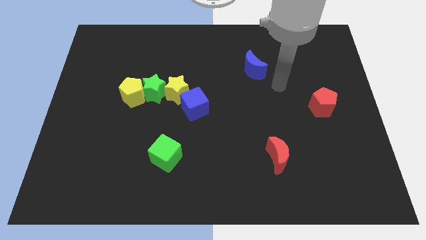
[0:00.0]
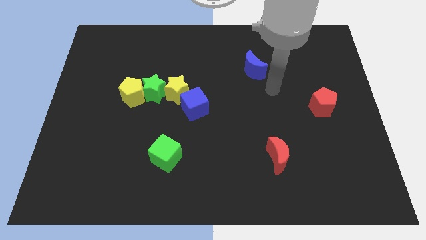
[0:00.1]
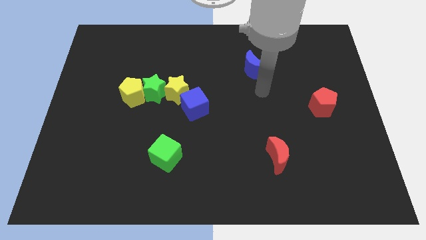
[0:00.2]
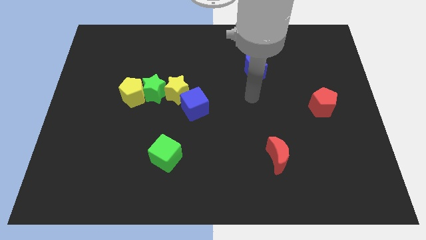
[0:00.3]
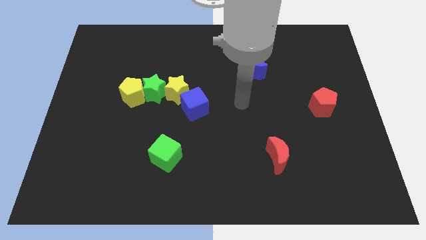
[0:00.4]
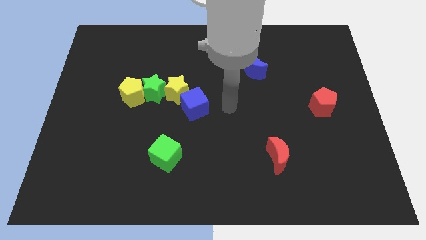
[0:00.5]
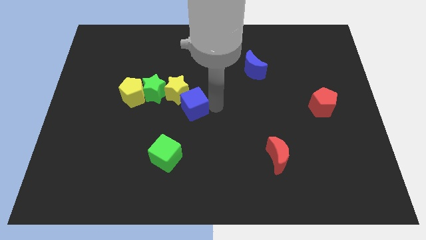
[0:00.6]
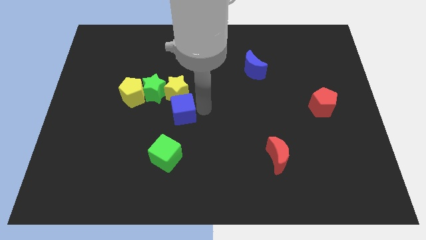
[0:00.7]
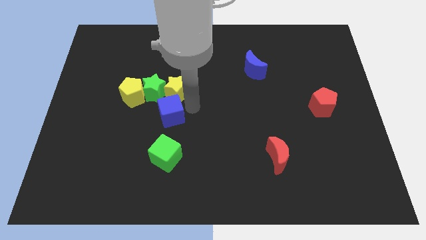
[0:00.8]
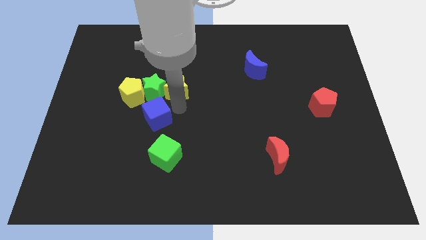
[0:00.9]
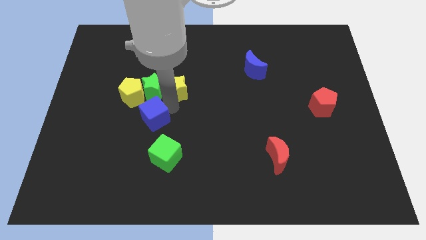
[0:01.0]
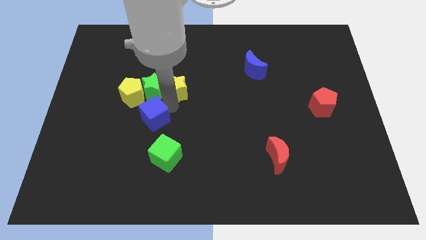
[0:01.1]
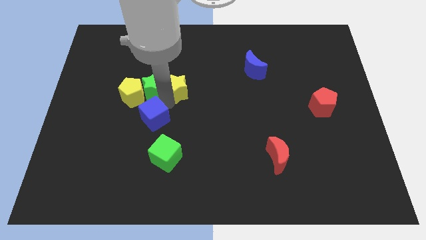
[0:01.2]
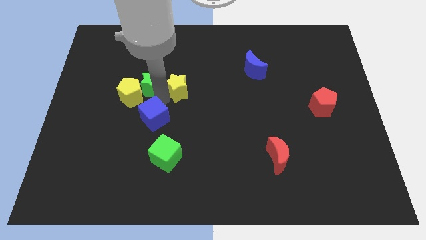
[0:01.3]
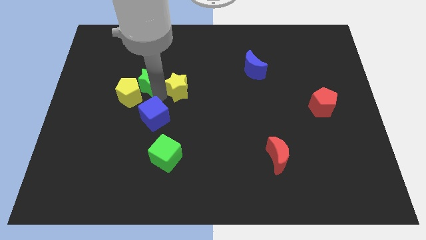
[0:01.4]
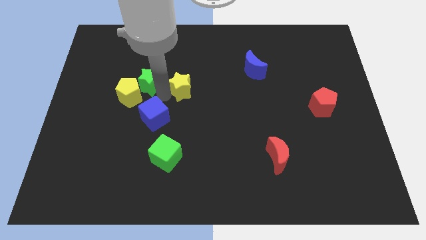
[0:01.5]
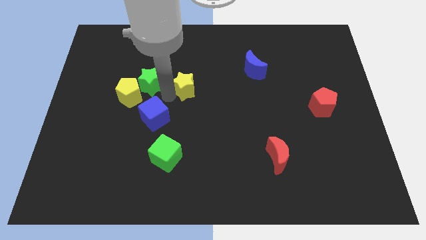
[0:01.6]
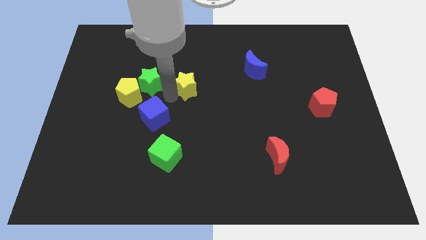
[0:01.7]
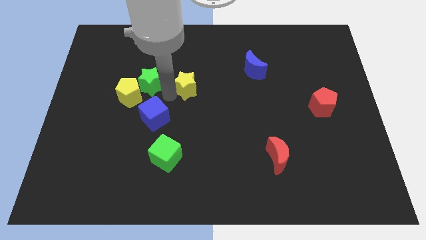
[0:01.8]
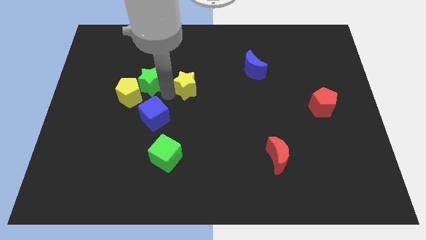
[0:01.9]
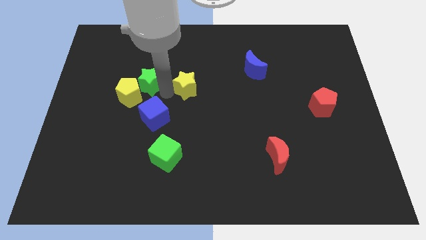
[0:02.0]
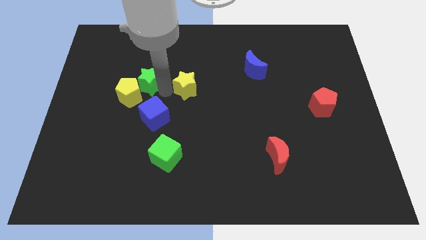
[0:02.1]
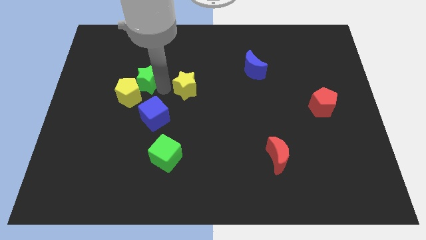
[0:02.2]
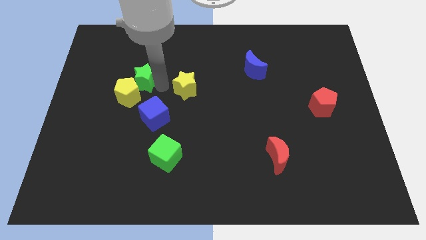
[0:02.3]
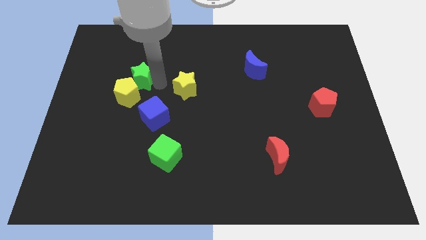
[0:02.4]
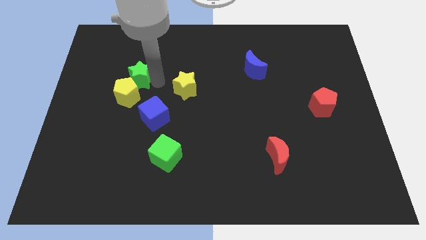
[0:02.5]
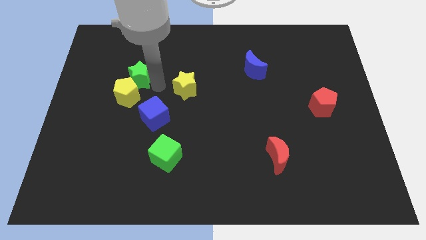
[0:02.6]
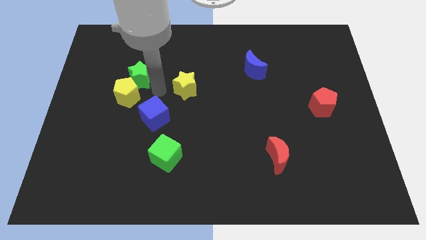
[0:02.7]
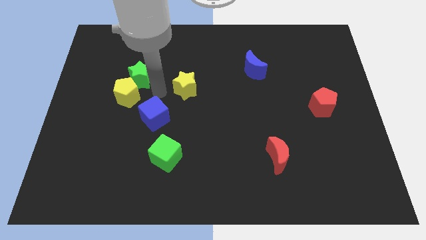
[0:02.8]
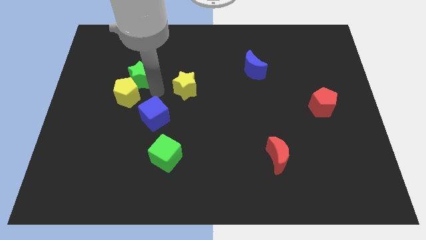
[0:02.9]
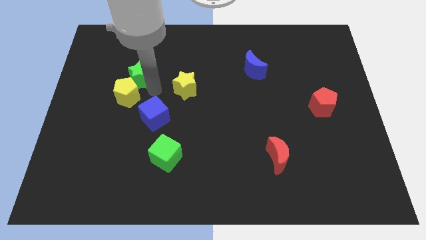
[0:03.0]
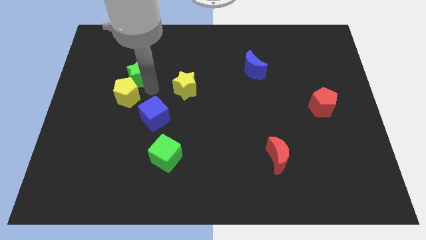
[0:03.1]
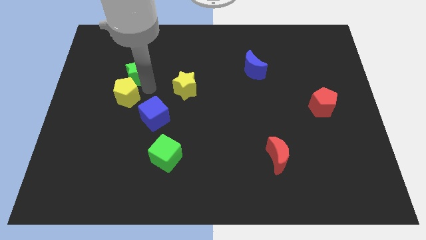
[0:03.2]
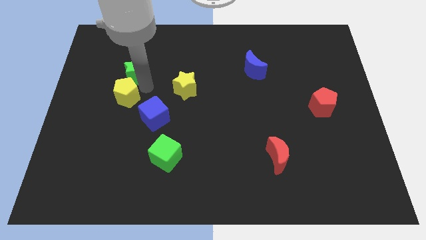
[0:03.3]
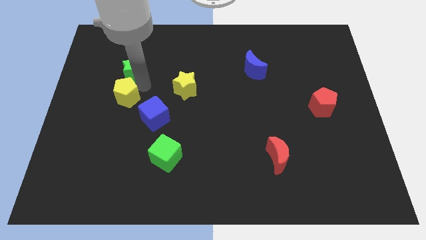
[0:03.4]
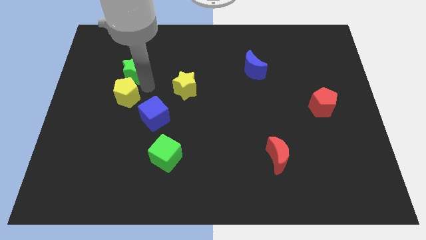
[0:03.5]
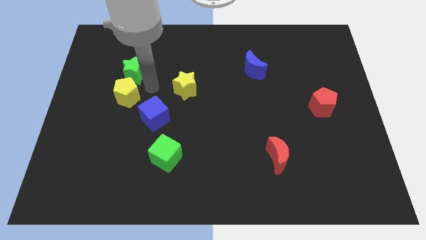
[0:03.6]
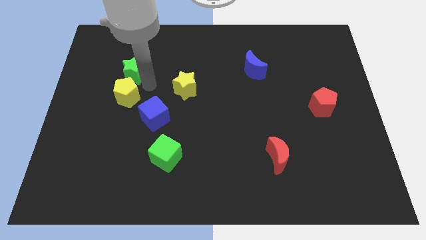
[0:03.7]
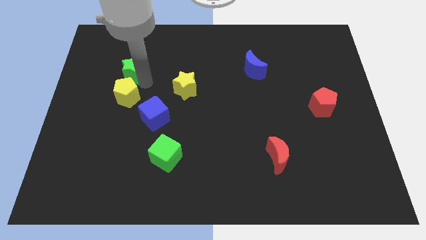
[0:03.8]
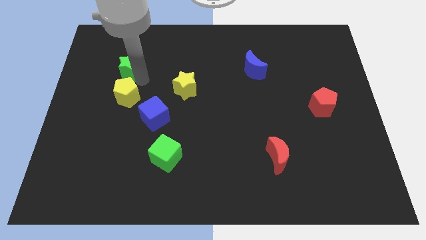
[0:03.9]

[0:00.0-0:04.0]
separate the green star from the yellow pentagon and yellow star

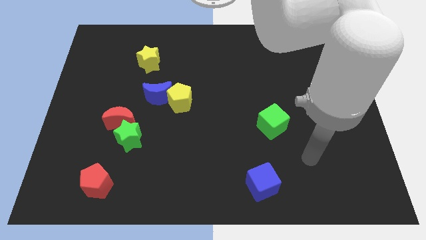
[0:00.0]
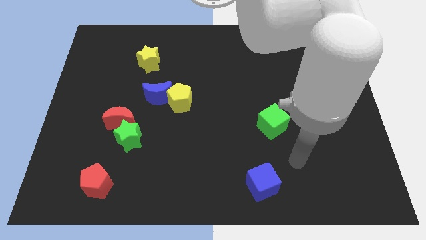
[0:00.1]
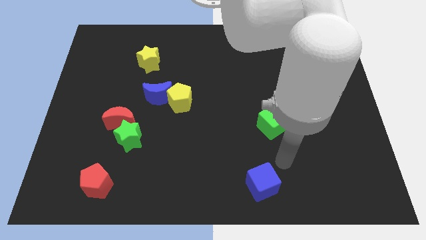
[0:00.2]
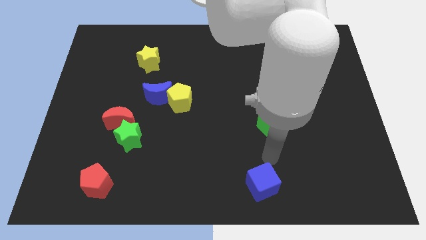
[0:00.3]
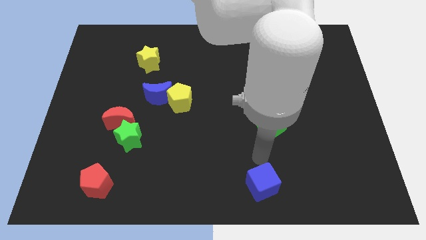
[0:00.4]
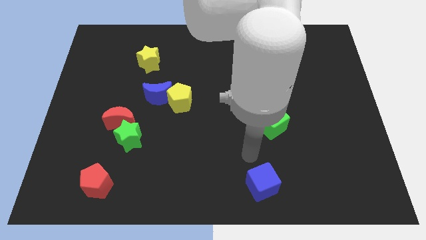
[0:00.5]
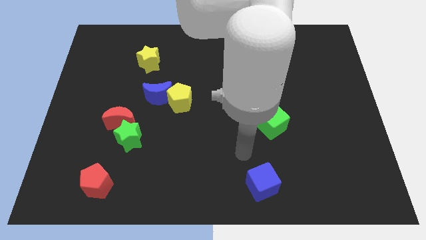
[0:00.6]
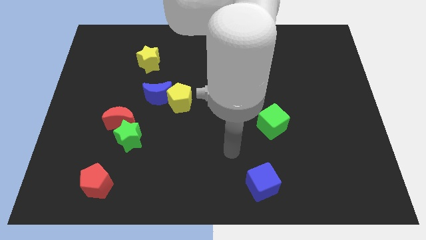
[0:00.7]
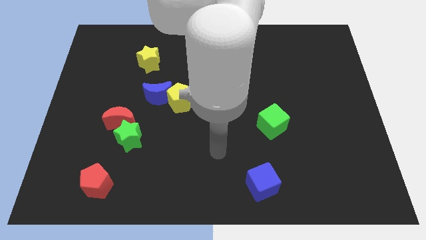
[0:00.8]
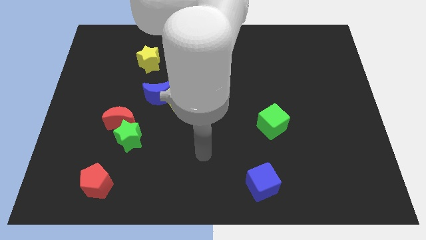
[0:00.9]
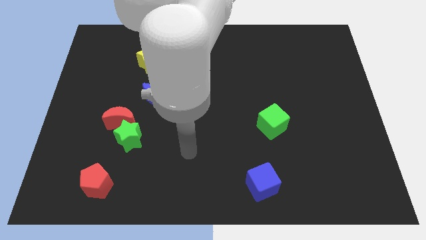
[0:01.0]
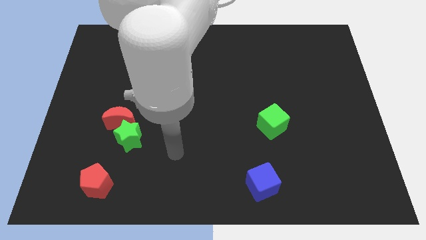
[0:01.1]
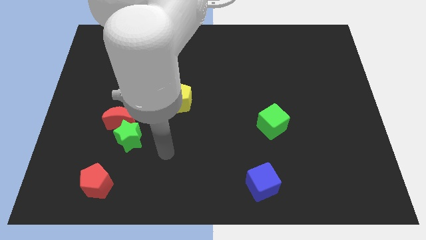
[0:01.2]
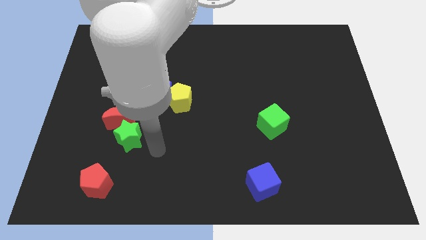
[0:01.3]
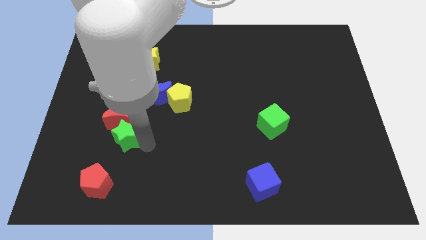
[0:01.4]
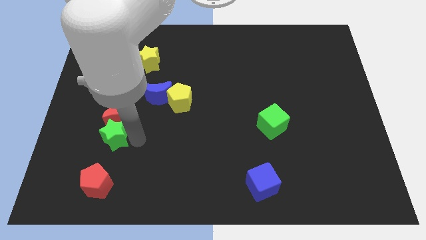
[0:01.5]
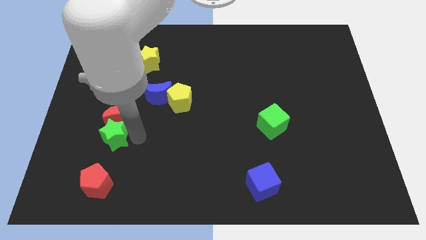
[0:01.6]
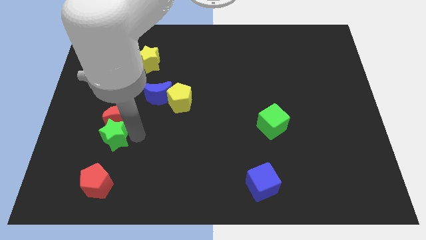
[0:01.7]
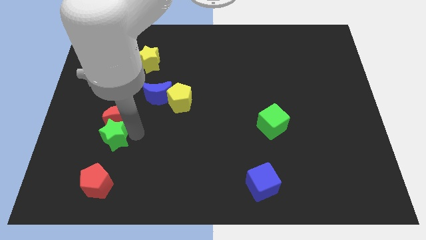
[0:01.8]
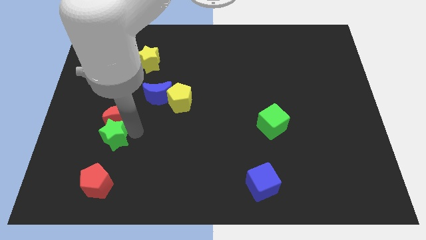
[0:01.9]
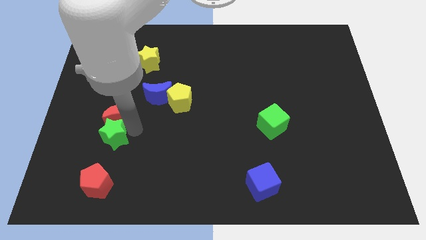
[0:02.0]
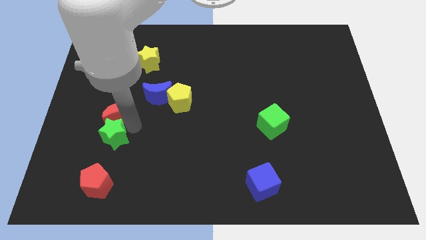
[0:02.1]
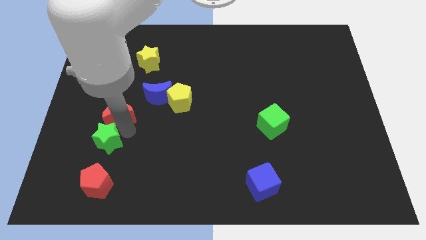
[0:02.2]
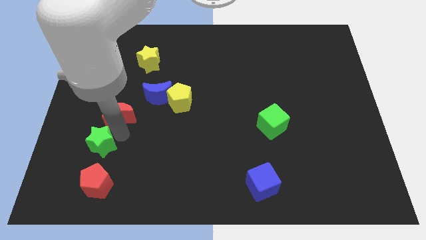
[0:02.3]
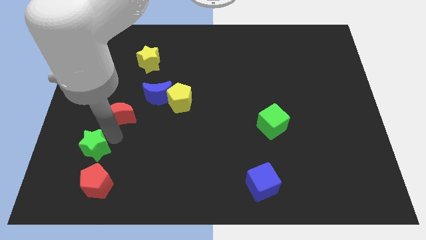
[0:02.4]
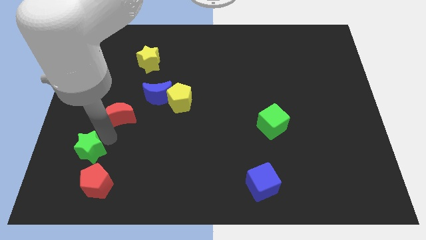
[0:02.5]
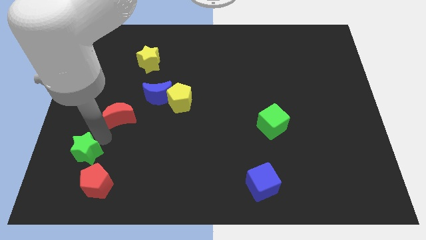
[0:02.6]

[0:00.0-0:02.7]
move the red moon away from the green star

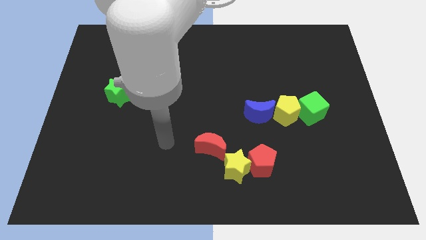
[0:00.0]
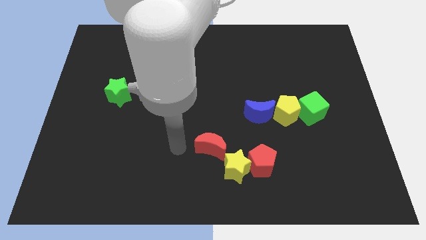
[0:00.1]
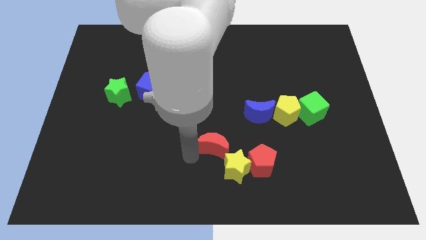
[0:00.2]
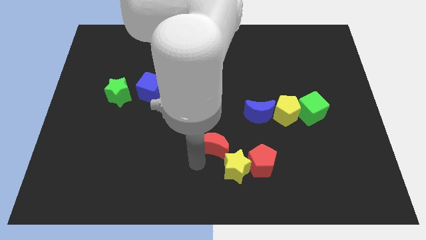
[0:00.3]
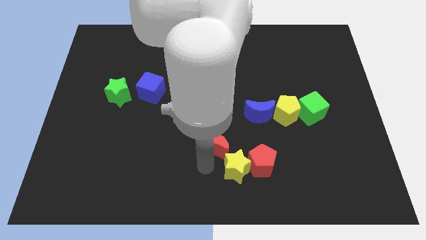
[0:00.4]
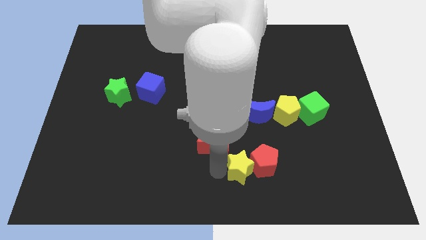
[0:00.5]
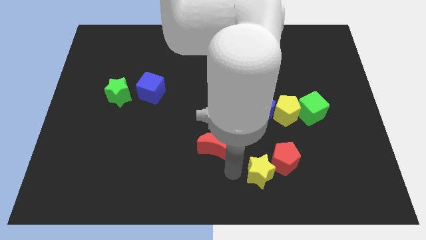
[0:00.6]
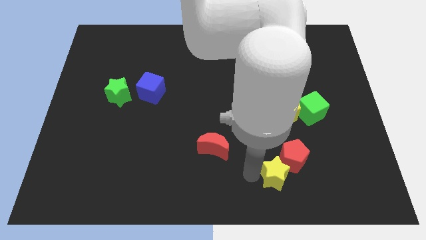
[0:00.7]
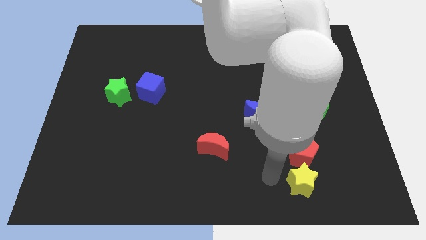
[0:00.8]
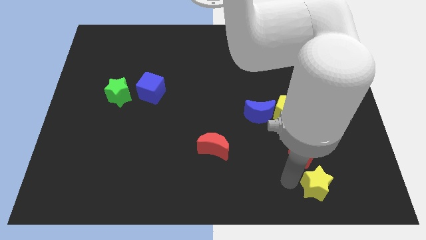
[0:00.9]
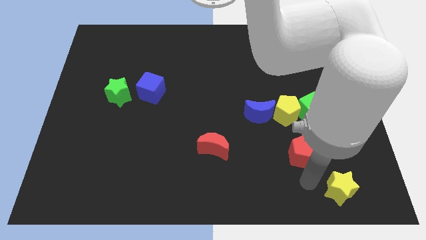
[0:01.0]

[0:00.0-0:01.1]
pull the red pentagon apart from the yellow star

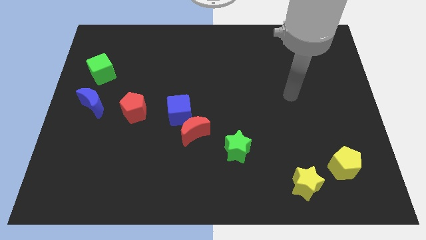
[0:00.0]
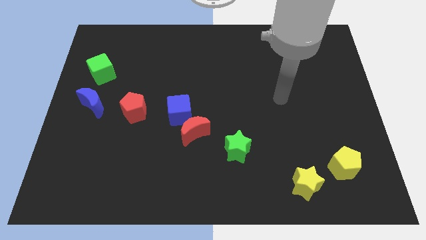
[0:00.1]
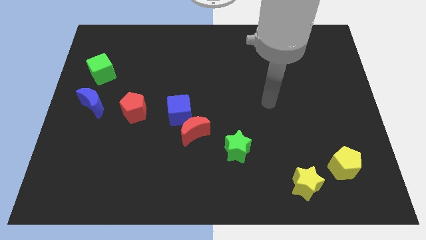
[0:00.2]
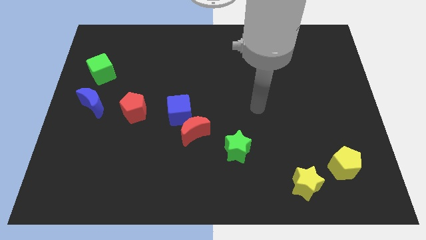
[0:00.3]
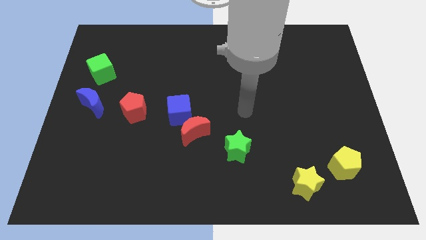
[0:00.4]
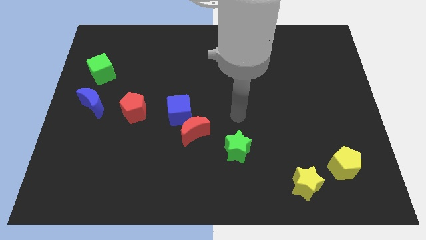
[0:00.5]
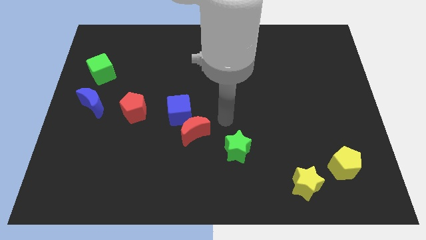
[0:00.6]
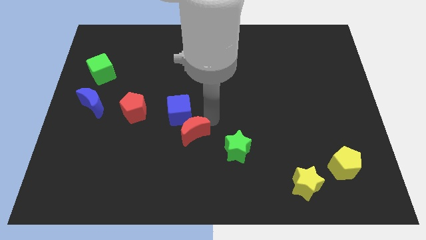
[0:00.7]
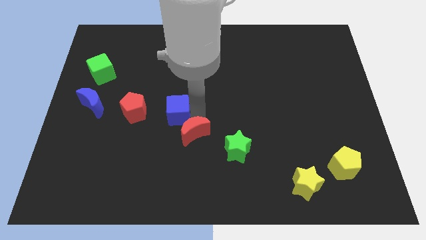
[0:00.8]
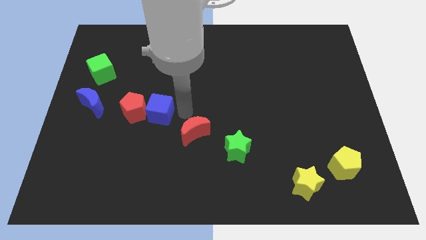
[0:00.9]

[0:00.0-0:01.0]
move the red moon away from the blue cube

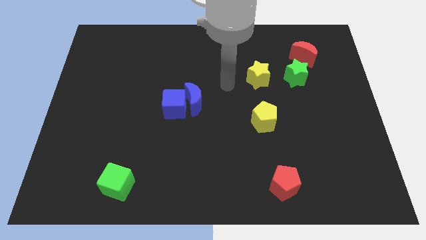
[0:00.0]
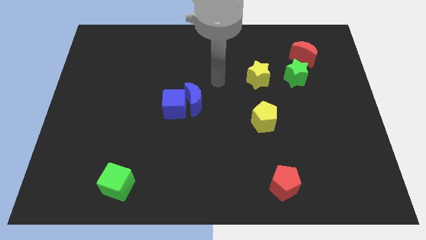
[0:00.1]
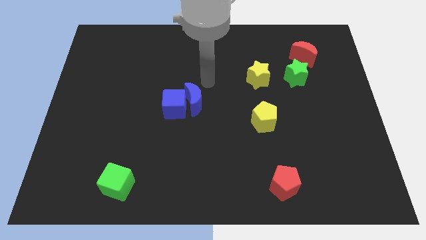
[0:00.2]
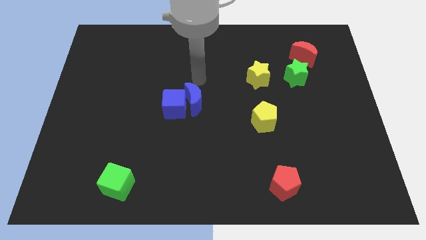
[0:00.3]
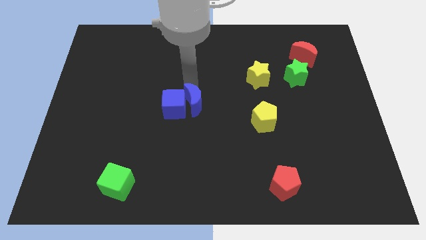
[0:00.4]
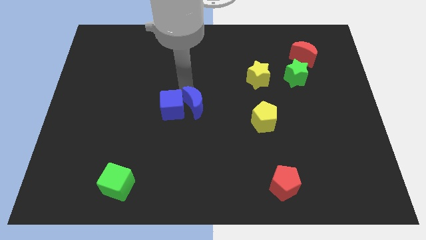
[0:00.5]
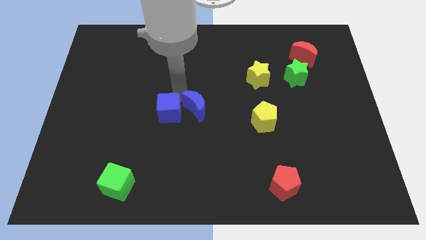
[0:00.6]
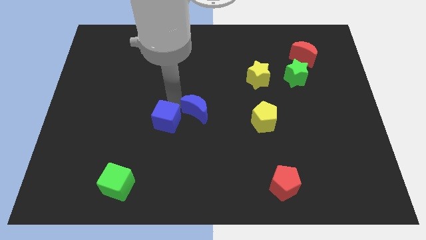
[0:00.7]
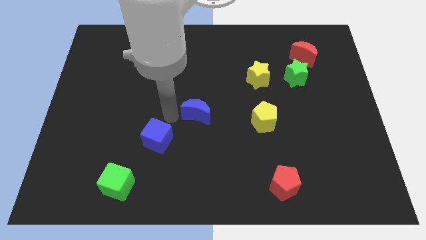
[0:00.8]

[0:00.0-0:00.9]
separate the blue moon from the blue cube
